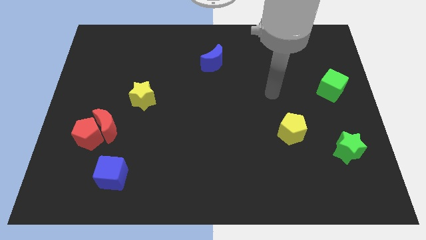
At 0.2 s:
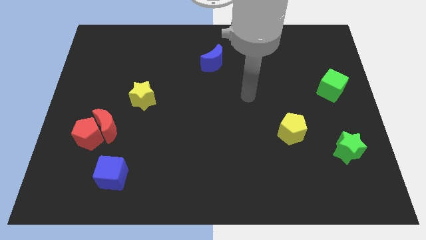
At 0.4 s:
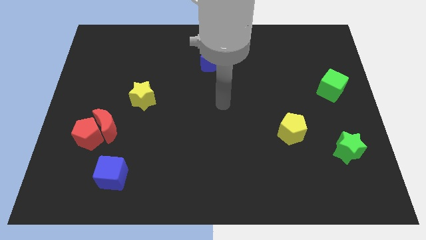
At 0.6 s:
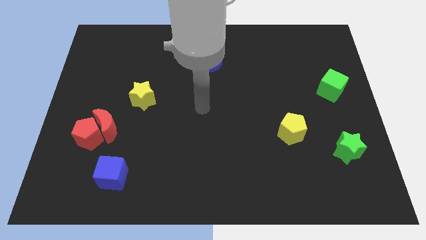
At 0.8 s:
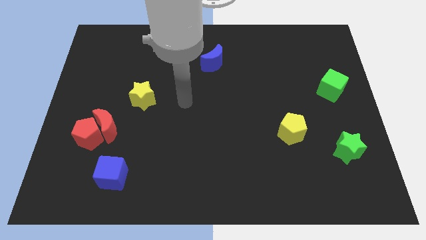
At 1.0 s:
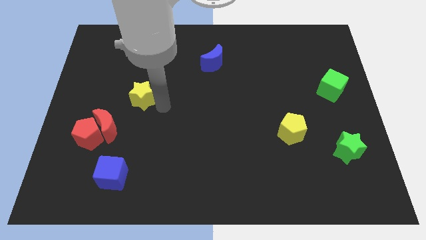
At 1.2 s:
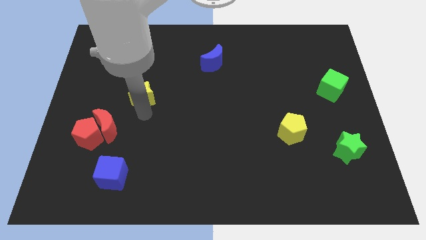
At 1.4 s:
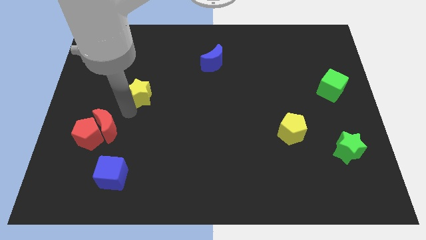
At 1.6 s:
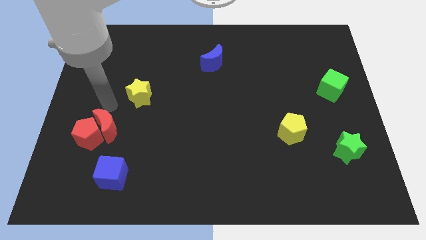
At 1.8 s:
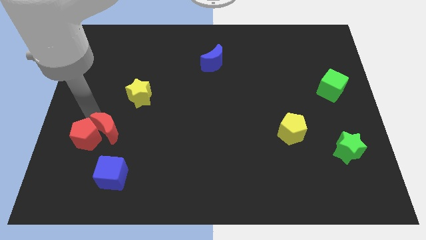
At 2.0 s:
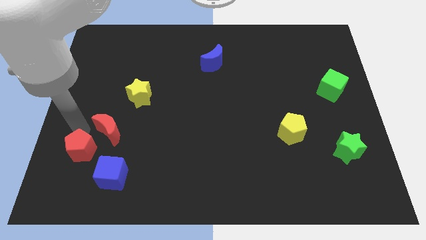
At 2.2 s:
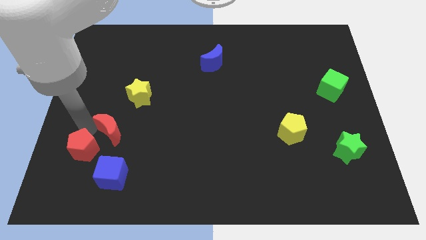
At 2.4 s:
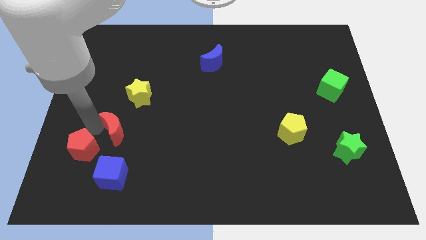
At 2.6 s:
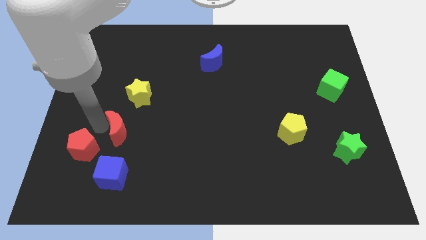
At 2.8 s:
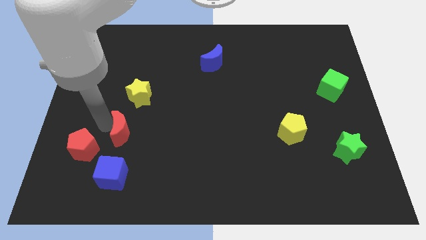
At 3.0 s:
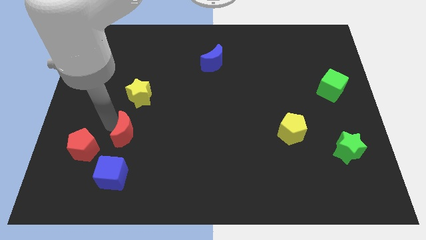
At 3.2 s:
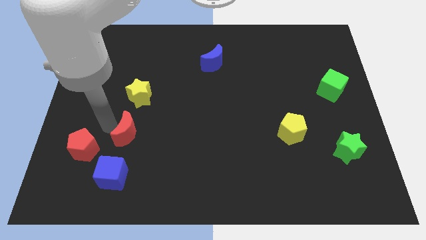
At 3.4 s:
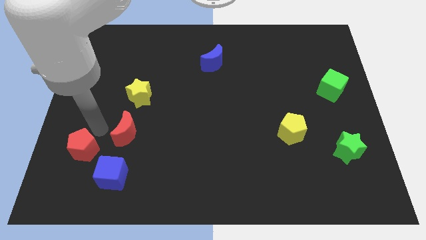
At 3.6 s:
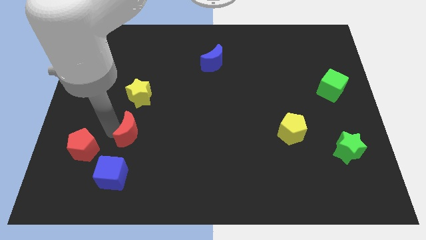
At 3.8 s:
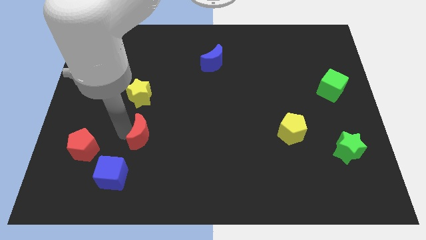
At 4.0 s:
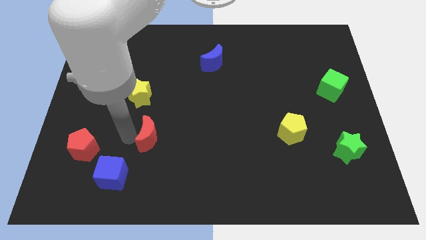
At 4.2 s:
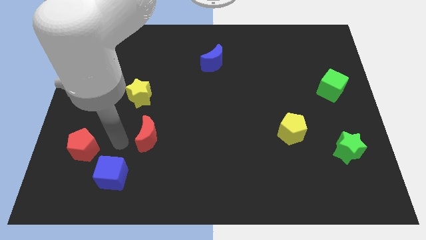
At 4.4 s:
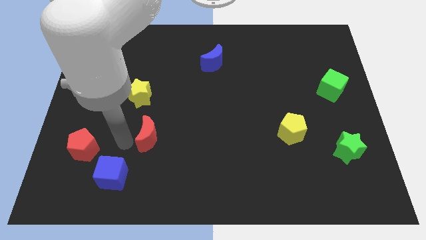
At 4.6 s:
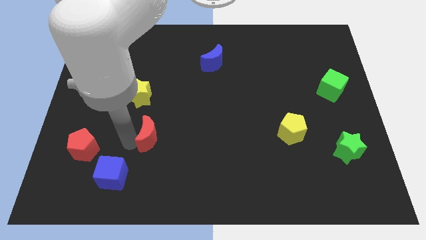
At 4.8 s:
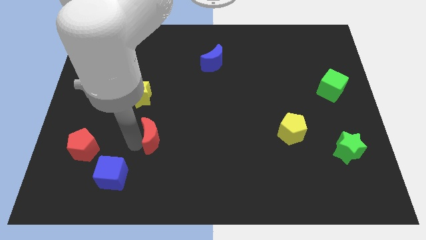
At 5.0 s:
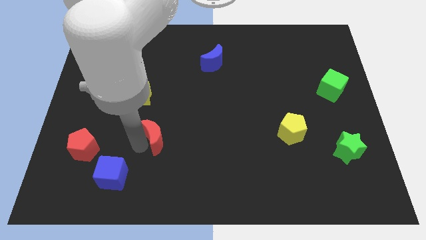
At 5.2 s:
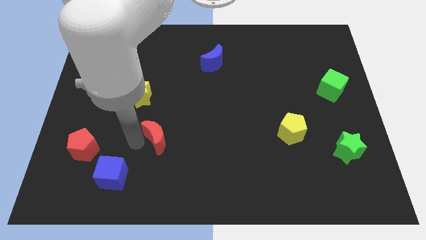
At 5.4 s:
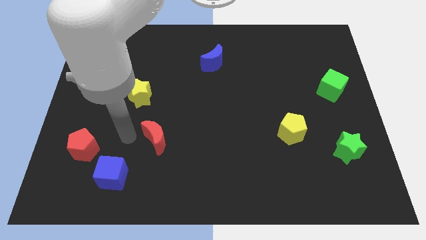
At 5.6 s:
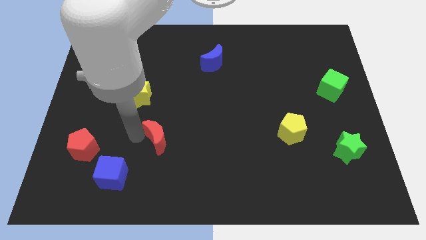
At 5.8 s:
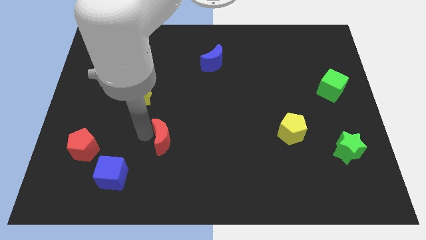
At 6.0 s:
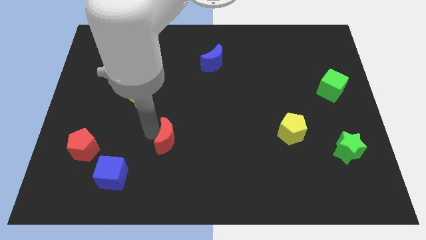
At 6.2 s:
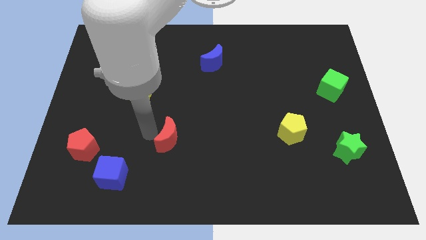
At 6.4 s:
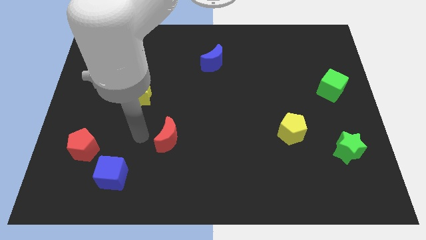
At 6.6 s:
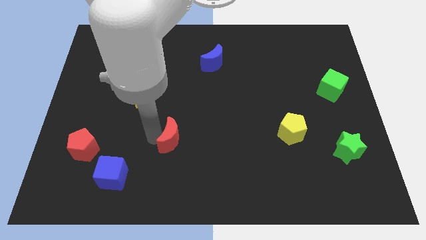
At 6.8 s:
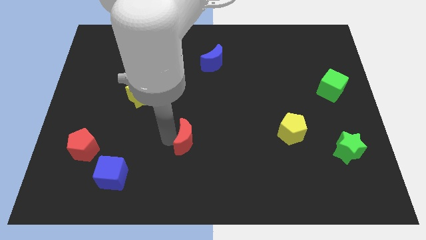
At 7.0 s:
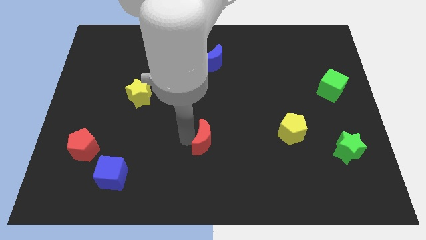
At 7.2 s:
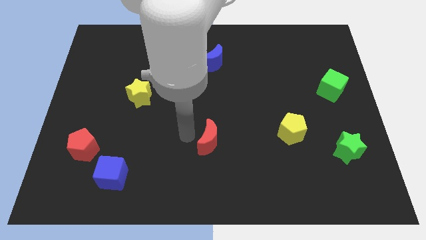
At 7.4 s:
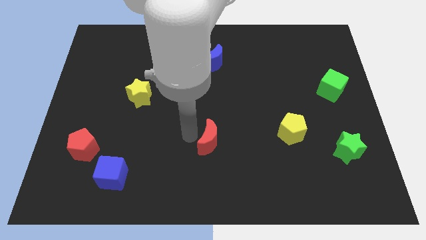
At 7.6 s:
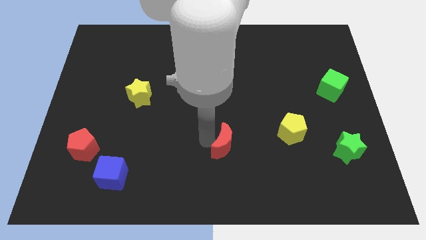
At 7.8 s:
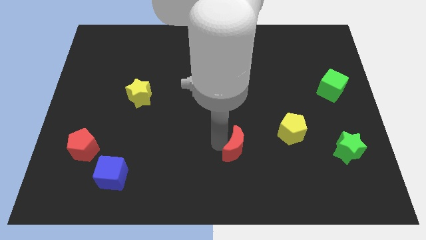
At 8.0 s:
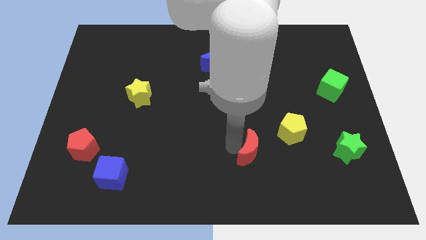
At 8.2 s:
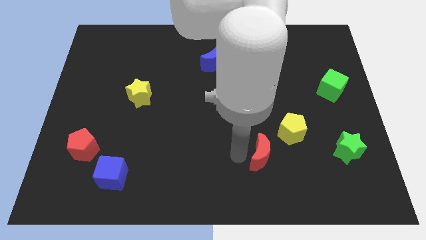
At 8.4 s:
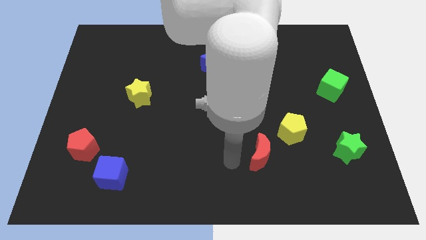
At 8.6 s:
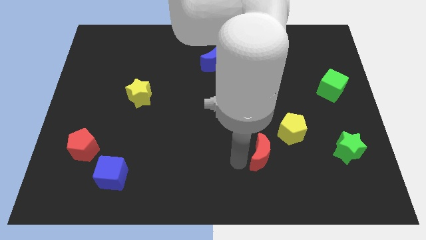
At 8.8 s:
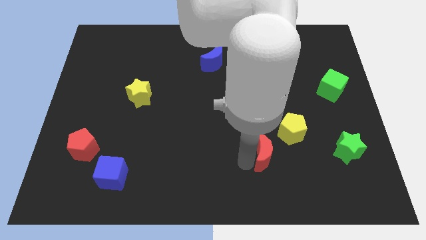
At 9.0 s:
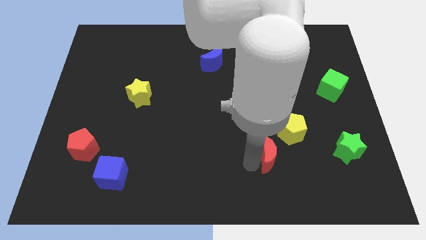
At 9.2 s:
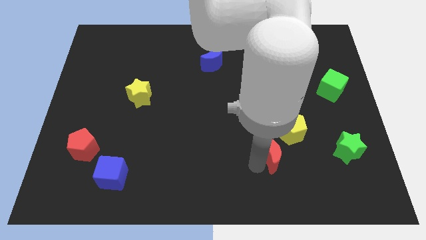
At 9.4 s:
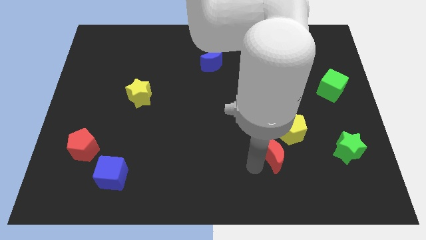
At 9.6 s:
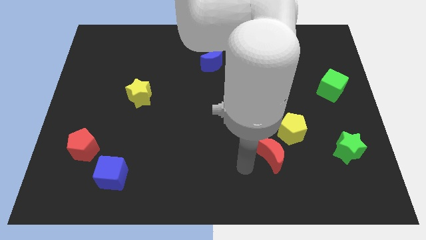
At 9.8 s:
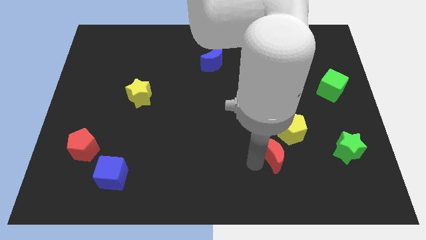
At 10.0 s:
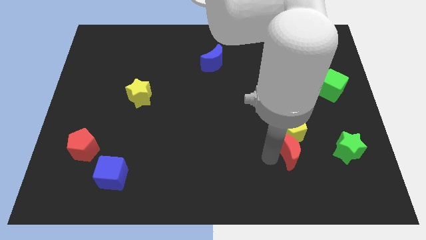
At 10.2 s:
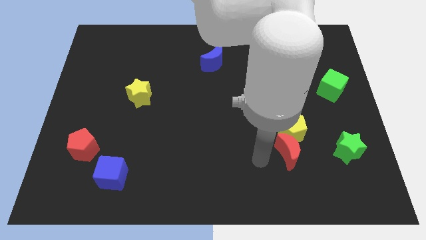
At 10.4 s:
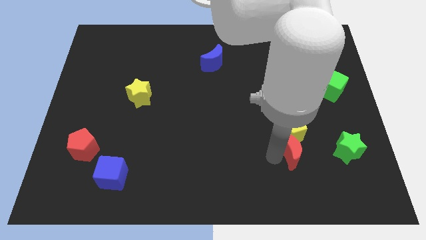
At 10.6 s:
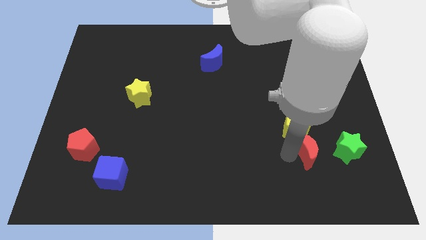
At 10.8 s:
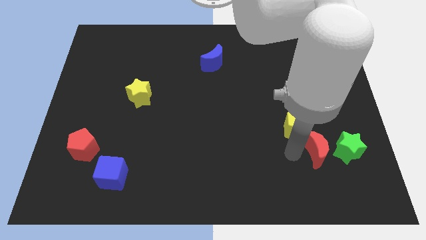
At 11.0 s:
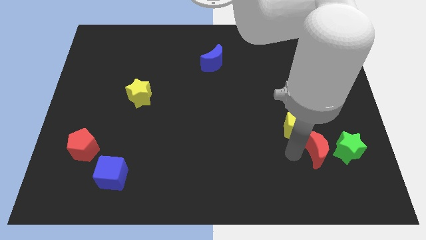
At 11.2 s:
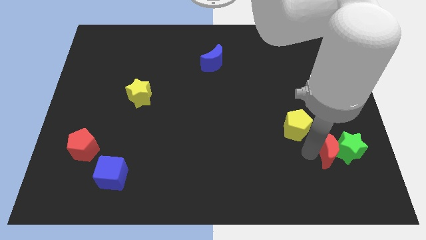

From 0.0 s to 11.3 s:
move the red moon to the green star

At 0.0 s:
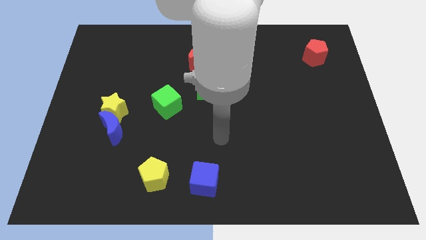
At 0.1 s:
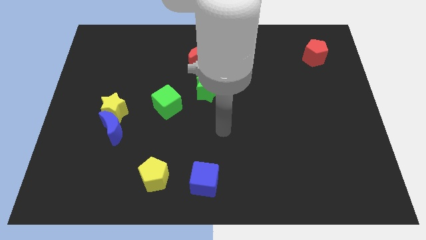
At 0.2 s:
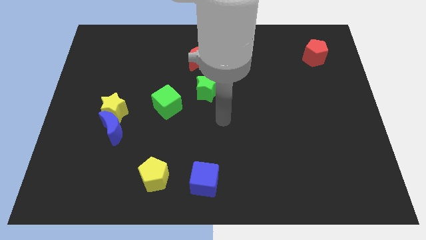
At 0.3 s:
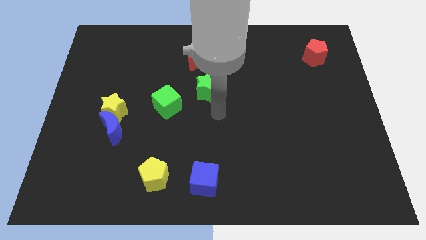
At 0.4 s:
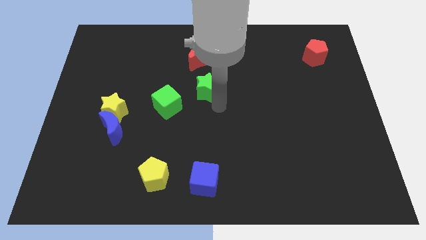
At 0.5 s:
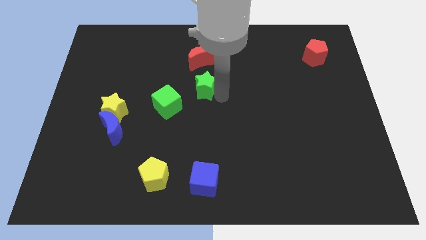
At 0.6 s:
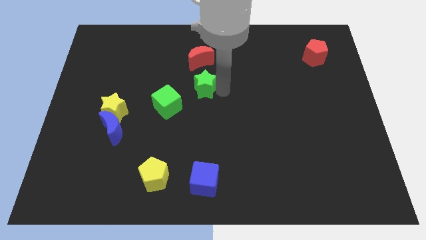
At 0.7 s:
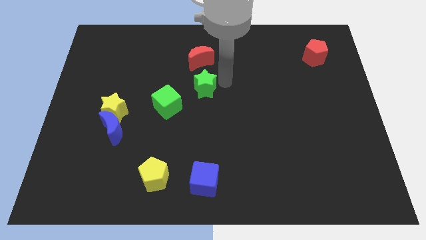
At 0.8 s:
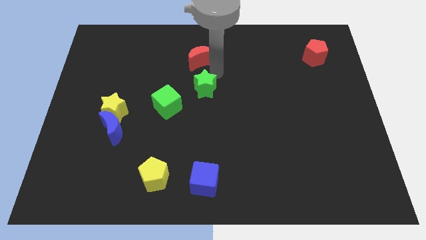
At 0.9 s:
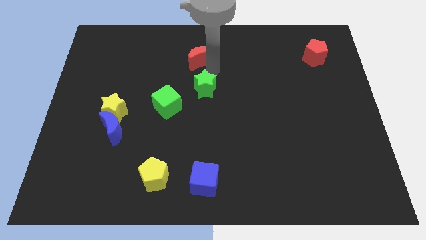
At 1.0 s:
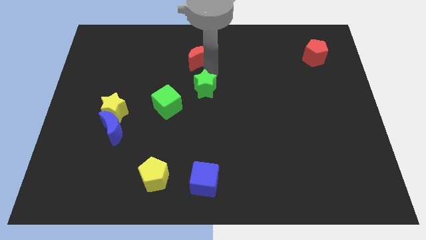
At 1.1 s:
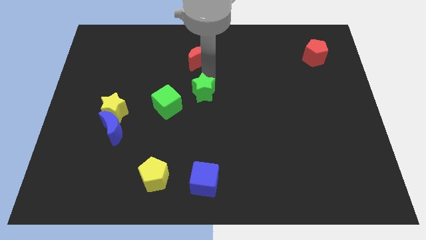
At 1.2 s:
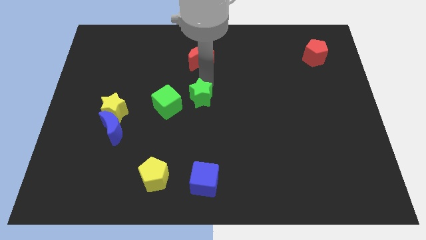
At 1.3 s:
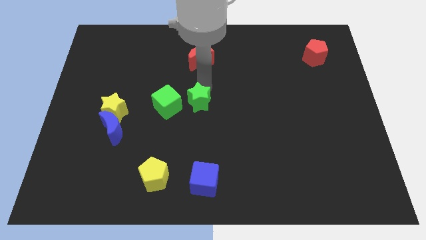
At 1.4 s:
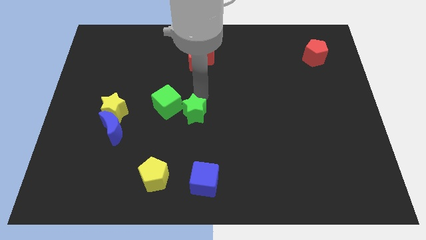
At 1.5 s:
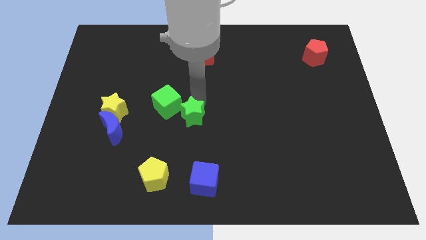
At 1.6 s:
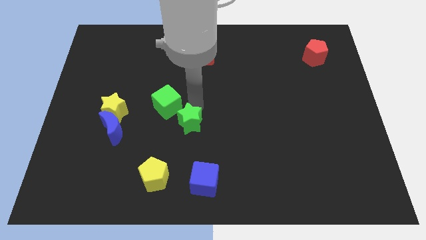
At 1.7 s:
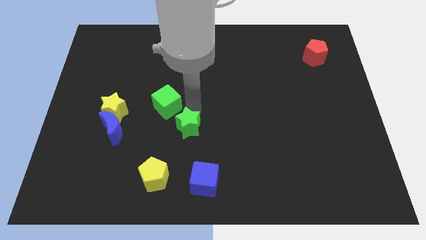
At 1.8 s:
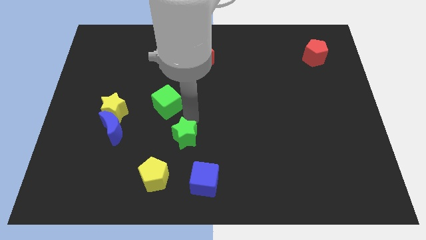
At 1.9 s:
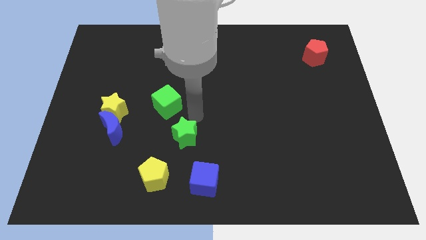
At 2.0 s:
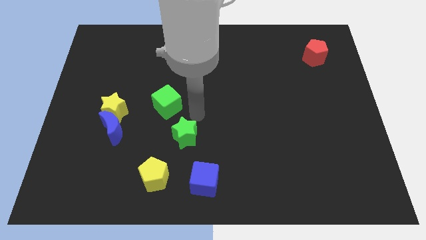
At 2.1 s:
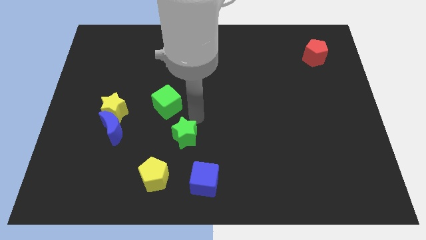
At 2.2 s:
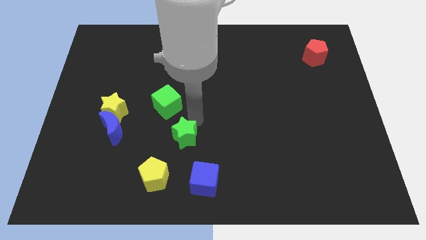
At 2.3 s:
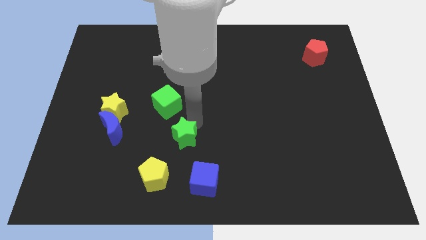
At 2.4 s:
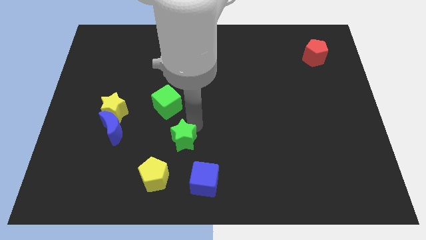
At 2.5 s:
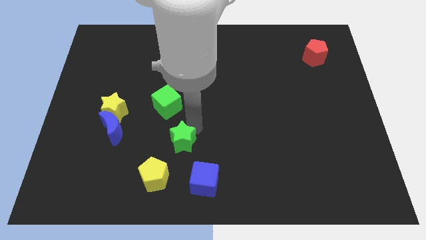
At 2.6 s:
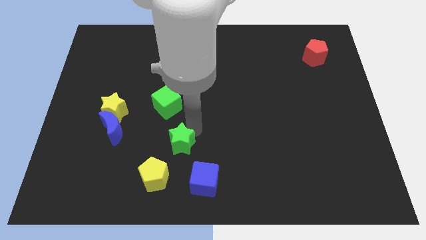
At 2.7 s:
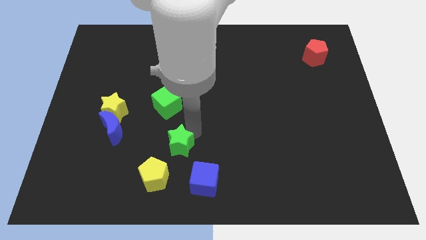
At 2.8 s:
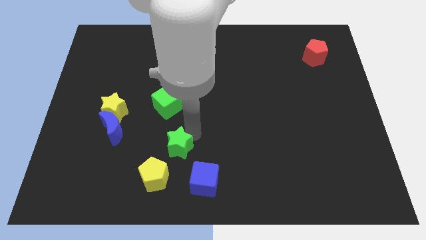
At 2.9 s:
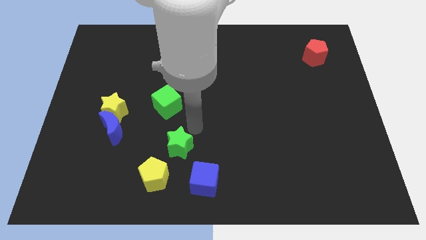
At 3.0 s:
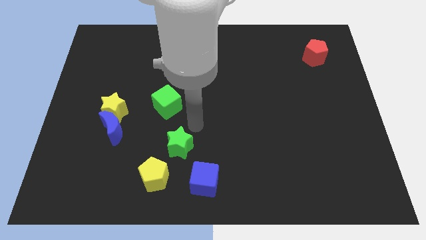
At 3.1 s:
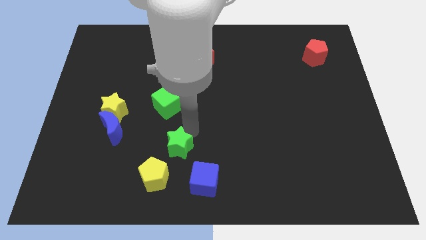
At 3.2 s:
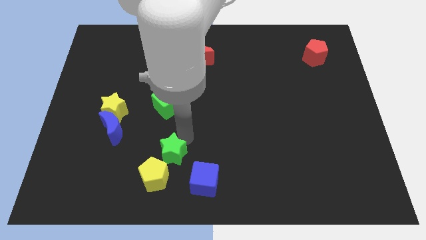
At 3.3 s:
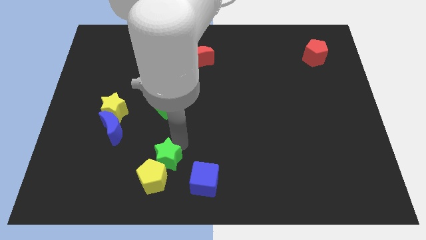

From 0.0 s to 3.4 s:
move the green star next to the yellow pentagon
